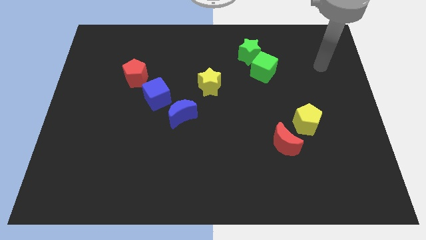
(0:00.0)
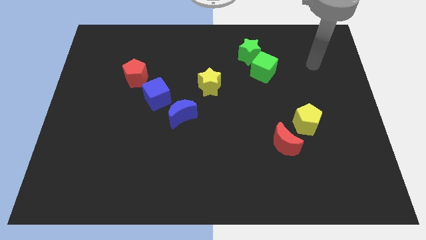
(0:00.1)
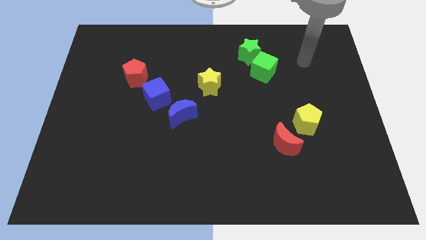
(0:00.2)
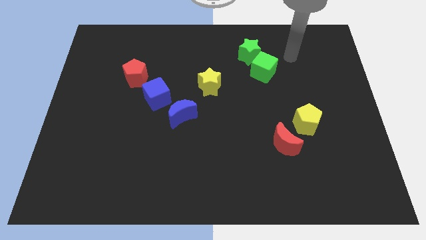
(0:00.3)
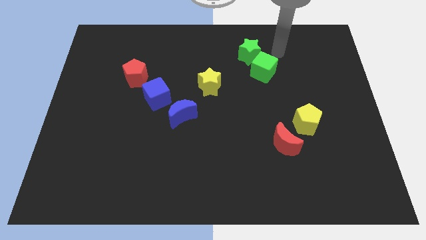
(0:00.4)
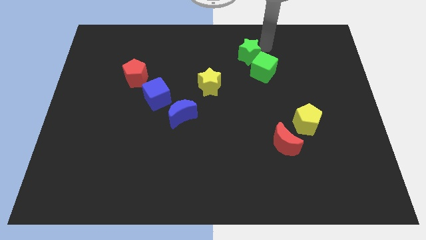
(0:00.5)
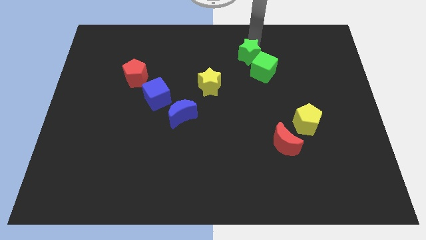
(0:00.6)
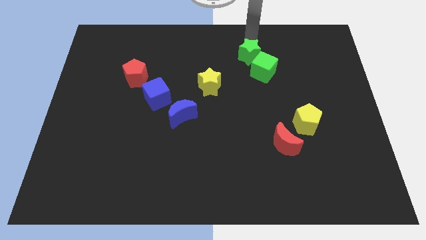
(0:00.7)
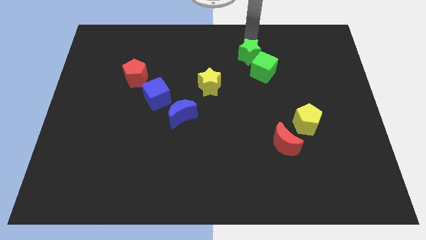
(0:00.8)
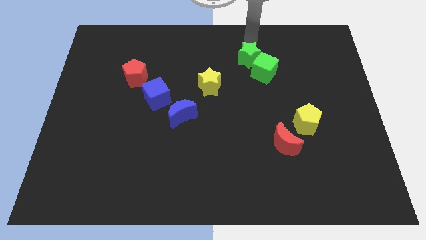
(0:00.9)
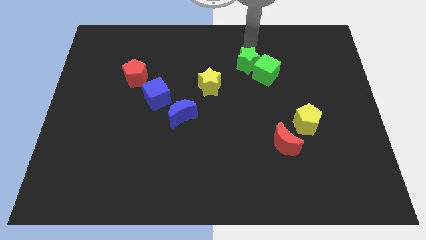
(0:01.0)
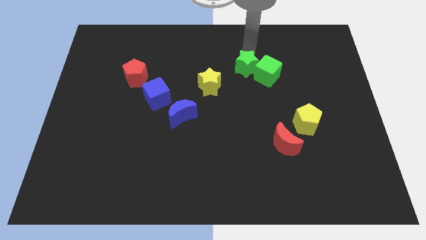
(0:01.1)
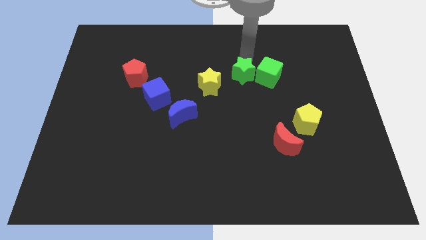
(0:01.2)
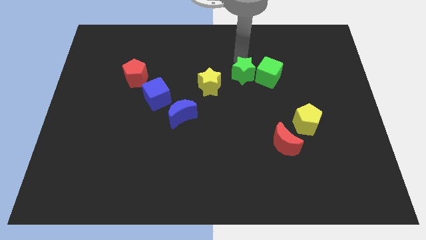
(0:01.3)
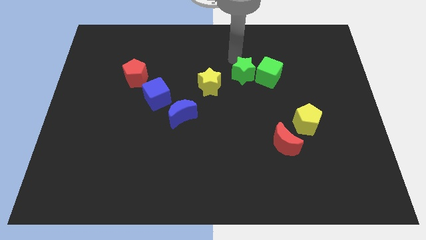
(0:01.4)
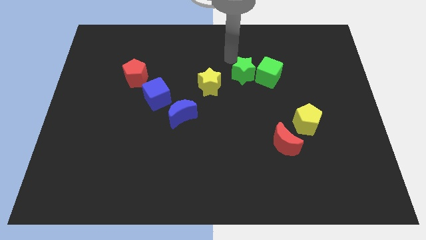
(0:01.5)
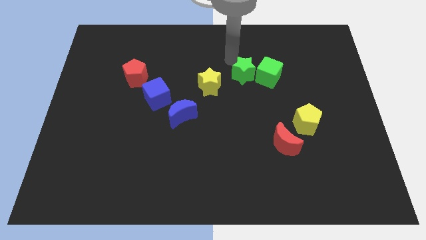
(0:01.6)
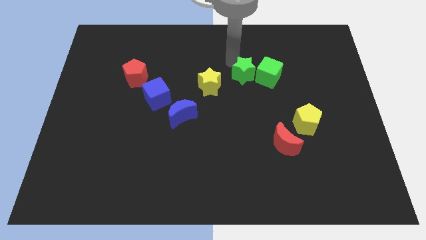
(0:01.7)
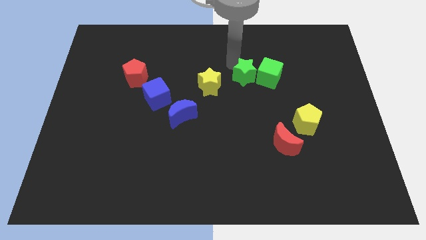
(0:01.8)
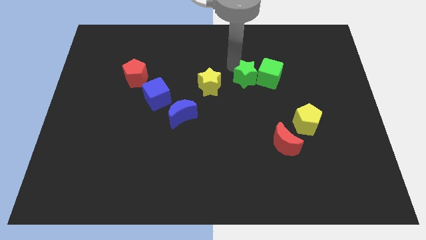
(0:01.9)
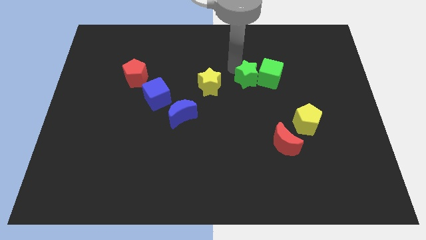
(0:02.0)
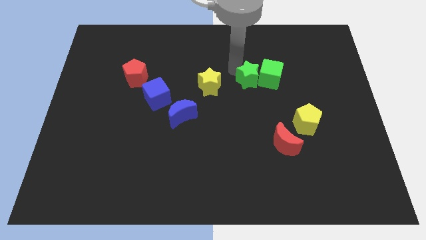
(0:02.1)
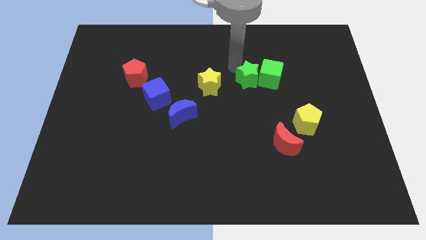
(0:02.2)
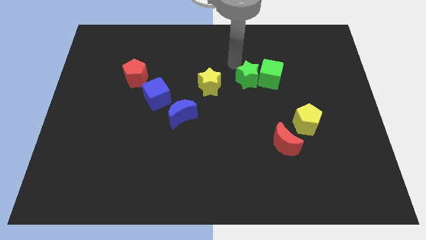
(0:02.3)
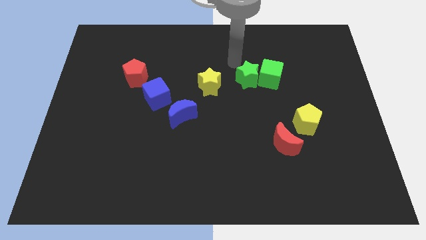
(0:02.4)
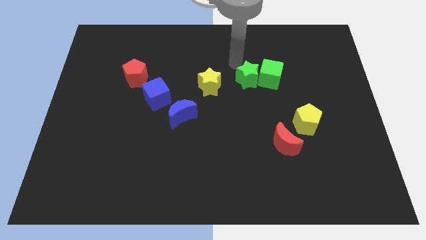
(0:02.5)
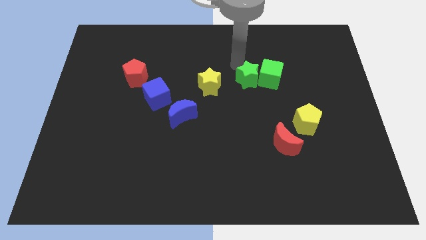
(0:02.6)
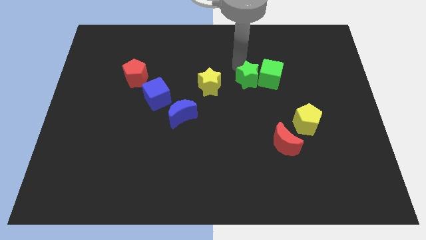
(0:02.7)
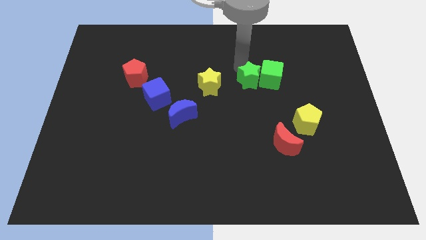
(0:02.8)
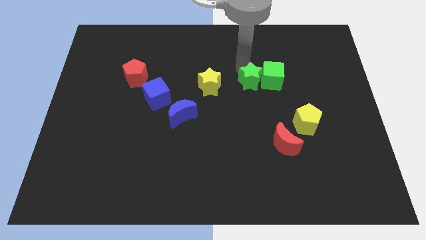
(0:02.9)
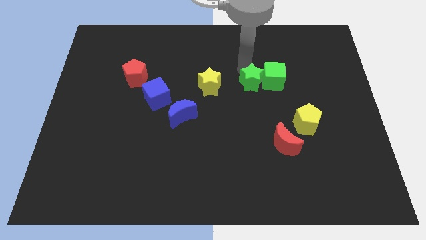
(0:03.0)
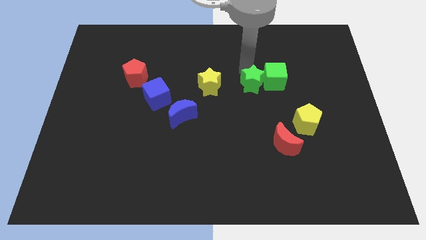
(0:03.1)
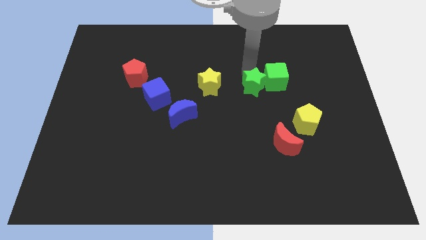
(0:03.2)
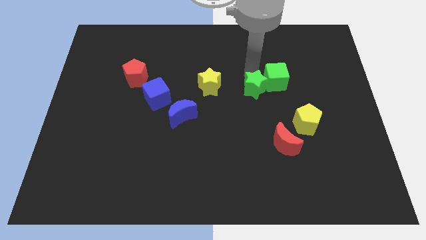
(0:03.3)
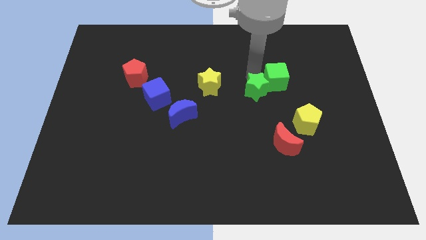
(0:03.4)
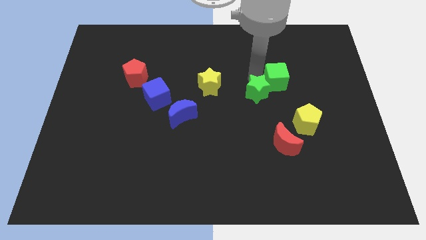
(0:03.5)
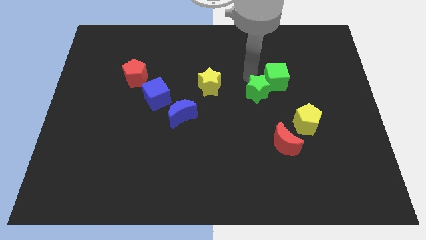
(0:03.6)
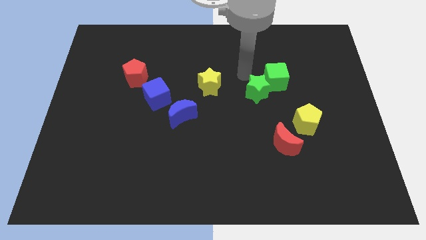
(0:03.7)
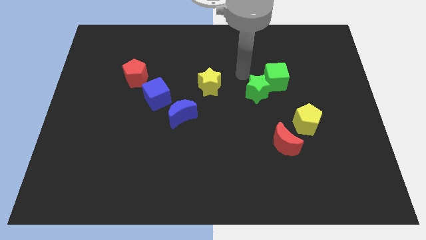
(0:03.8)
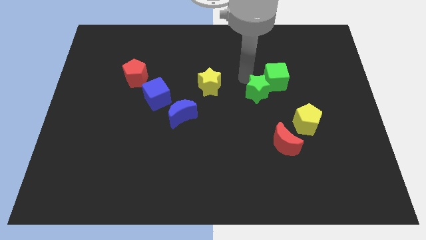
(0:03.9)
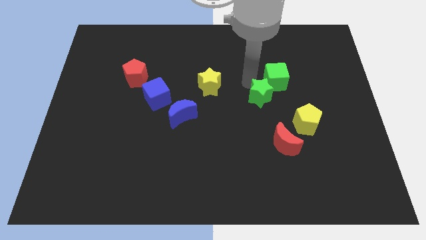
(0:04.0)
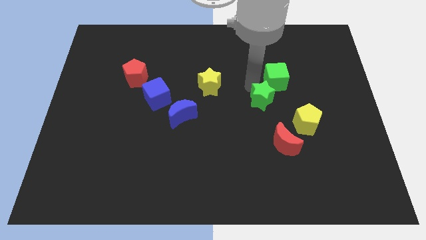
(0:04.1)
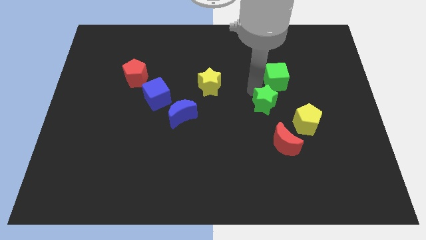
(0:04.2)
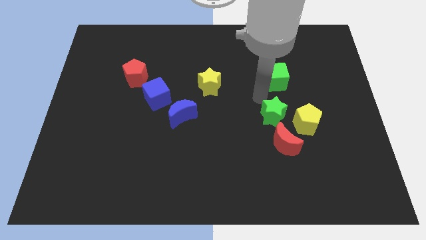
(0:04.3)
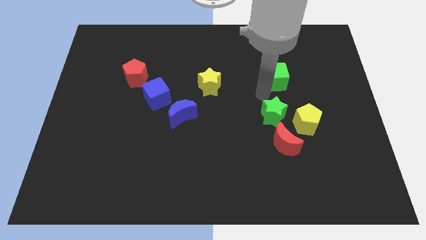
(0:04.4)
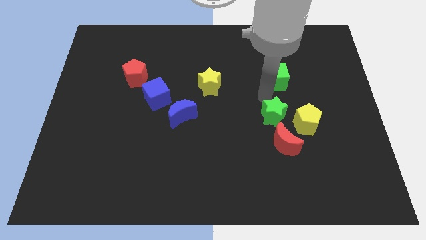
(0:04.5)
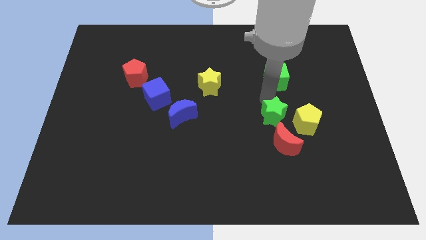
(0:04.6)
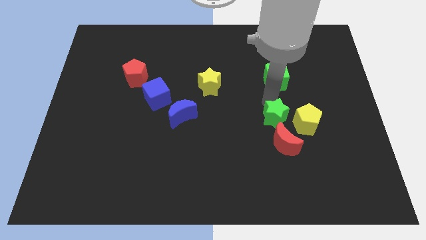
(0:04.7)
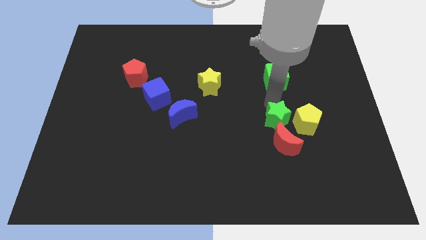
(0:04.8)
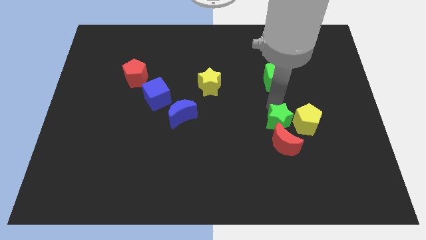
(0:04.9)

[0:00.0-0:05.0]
push the green star to the red moon

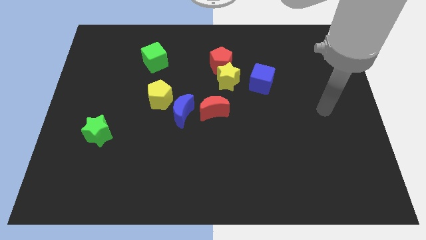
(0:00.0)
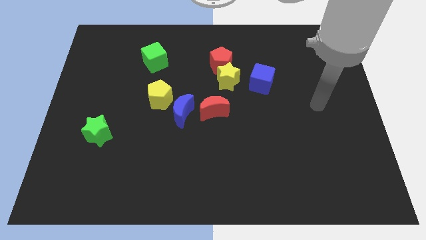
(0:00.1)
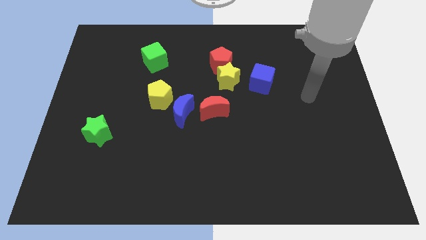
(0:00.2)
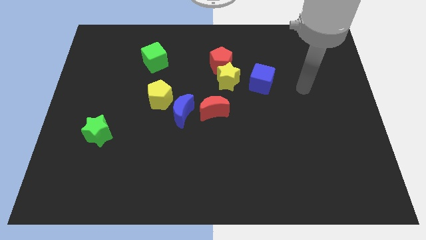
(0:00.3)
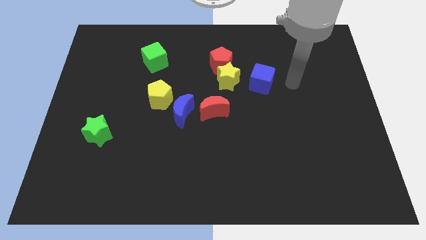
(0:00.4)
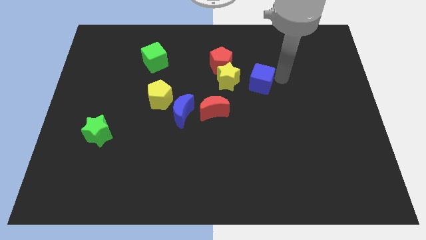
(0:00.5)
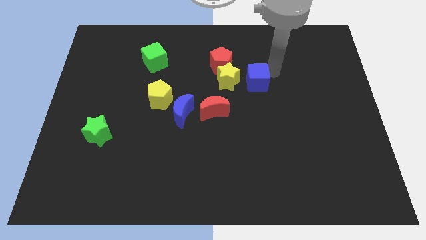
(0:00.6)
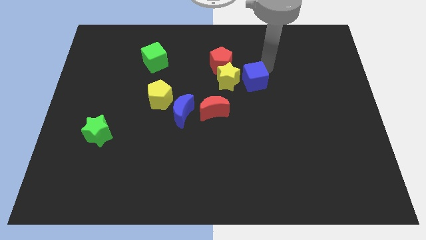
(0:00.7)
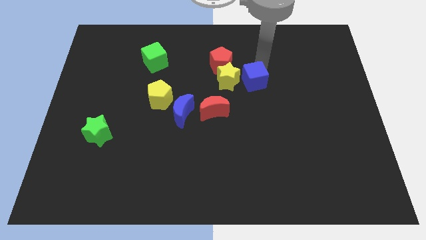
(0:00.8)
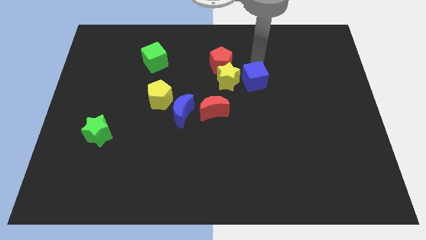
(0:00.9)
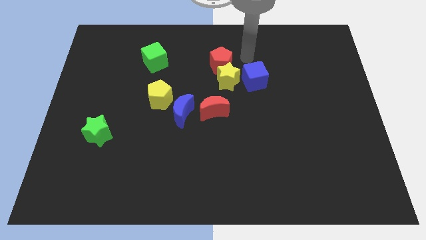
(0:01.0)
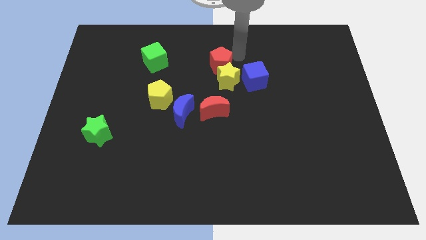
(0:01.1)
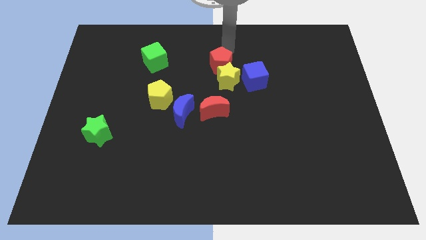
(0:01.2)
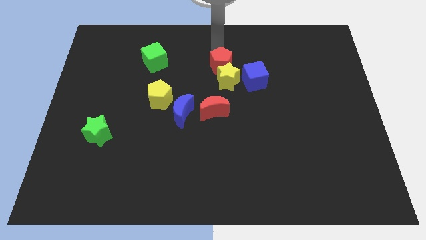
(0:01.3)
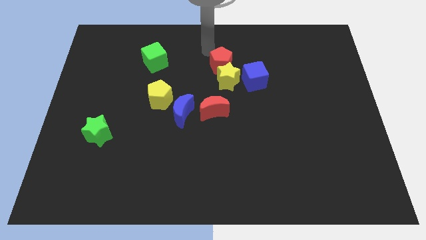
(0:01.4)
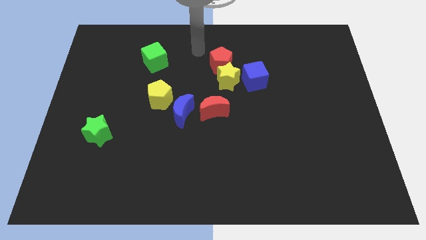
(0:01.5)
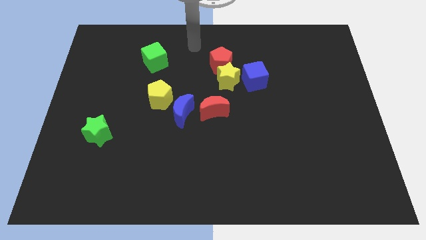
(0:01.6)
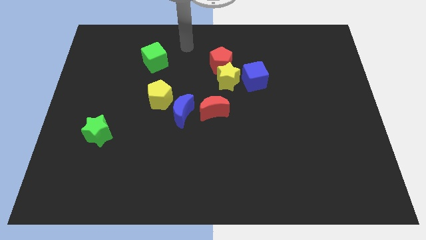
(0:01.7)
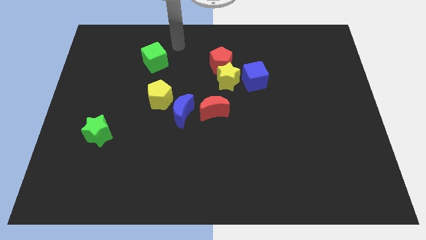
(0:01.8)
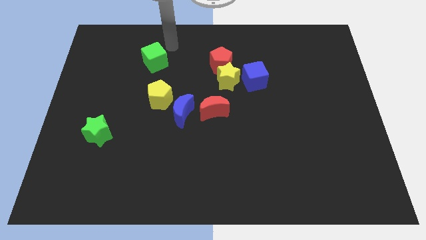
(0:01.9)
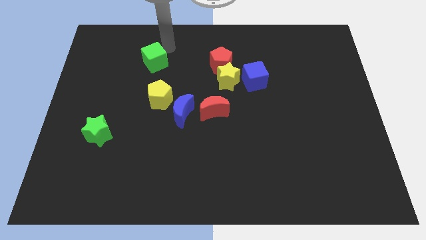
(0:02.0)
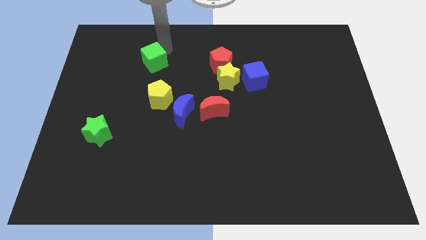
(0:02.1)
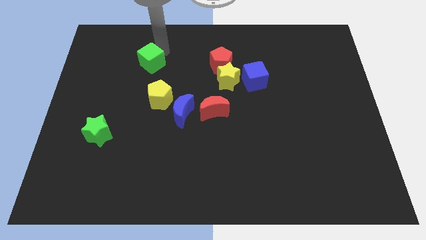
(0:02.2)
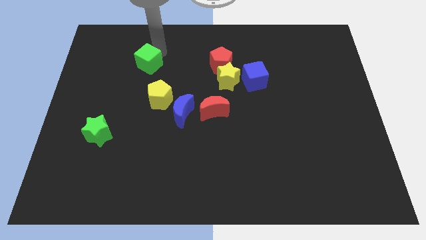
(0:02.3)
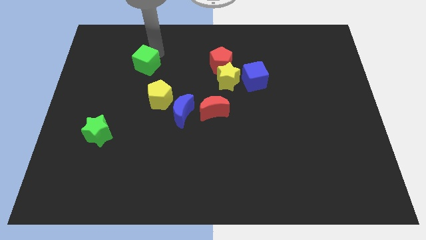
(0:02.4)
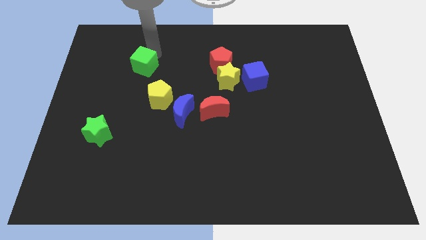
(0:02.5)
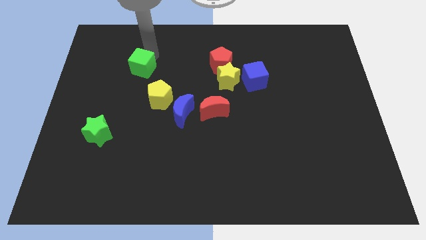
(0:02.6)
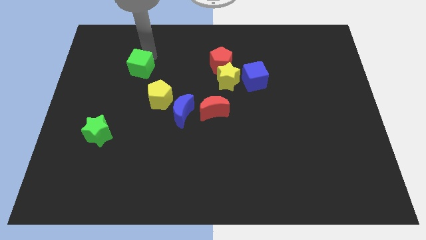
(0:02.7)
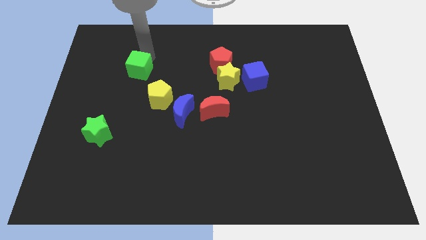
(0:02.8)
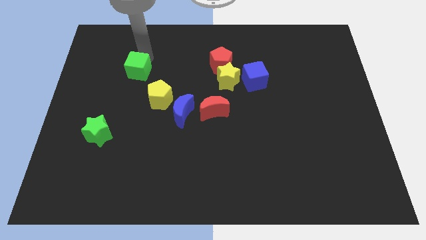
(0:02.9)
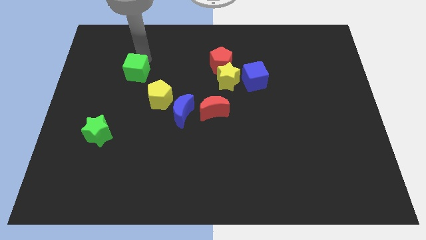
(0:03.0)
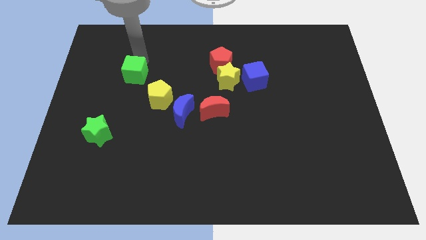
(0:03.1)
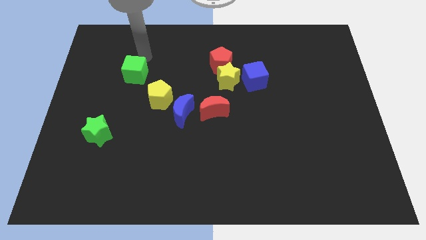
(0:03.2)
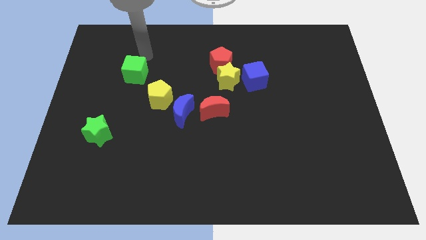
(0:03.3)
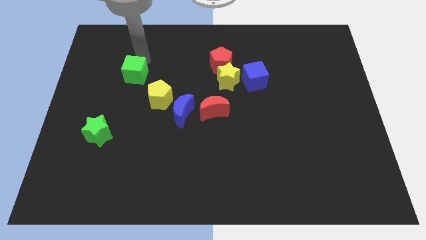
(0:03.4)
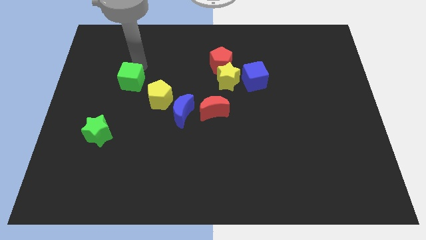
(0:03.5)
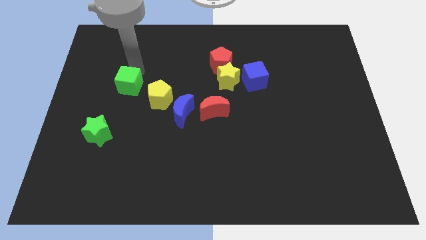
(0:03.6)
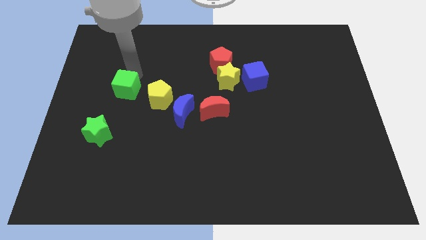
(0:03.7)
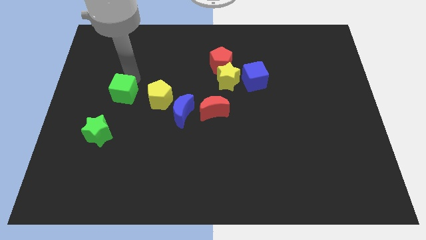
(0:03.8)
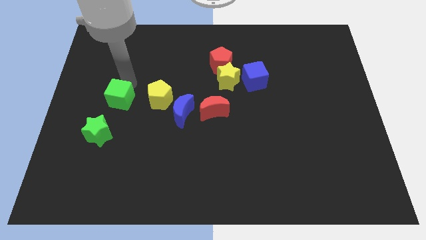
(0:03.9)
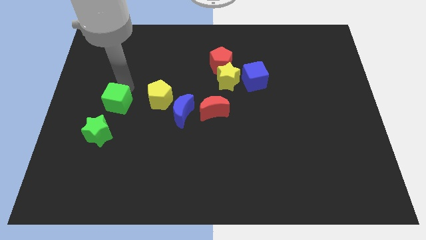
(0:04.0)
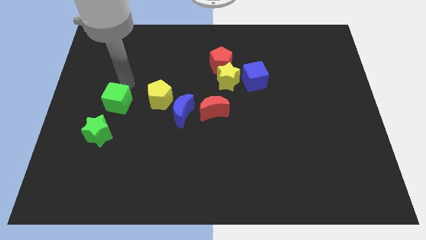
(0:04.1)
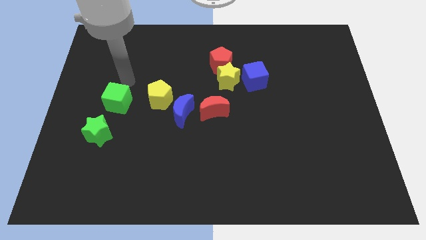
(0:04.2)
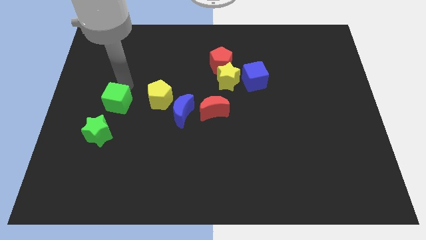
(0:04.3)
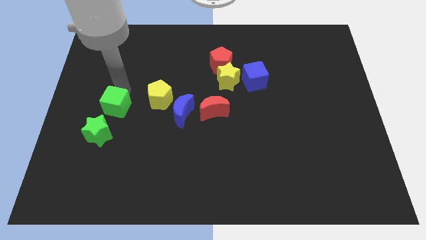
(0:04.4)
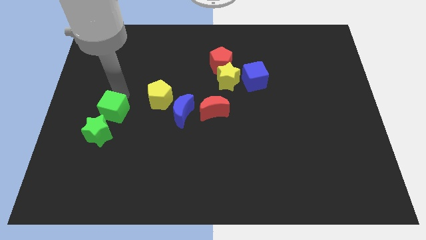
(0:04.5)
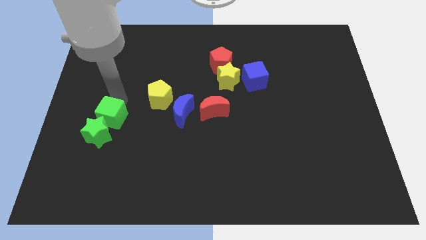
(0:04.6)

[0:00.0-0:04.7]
put the green cube next to the green star
